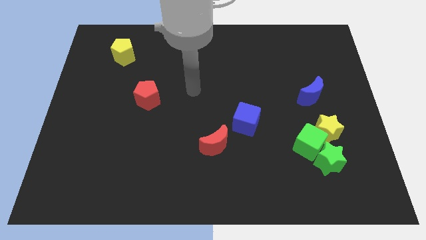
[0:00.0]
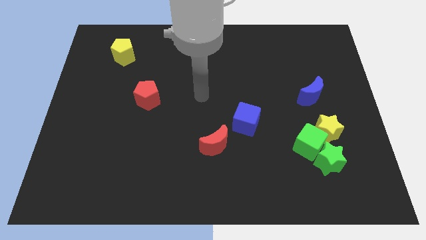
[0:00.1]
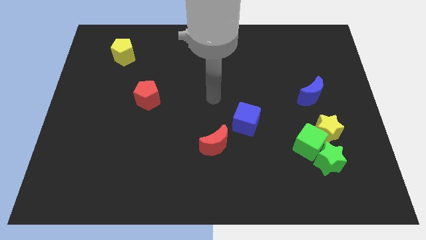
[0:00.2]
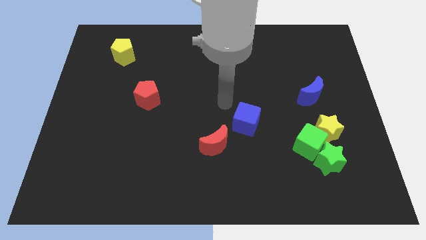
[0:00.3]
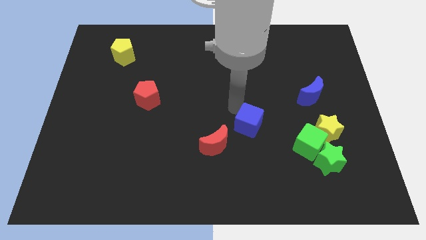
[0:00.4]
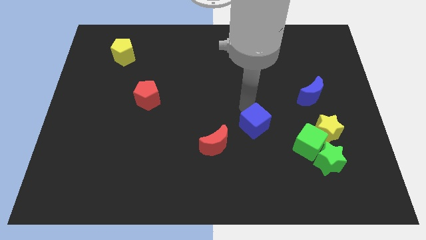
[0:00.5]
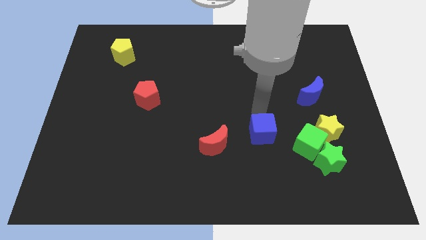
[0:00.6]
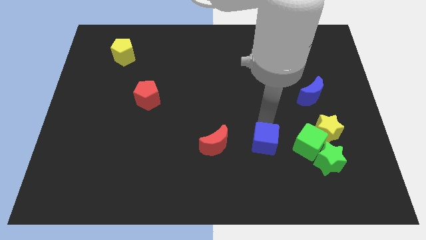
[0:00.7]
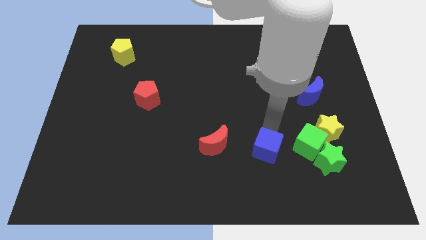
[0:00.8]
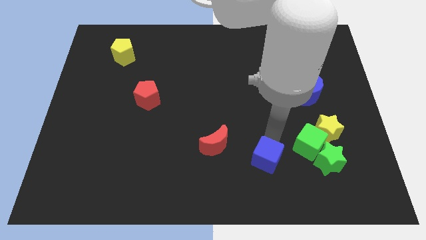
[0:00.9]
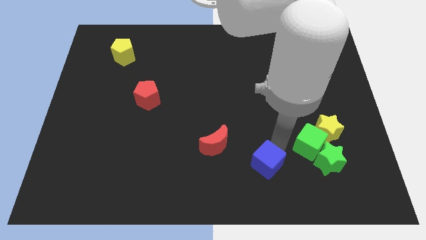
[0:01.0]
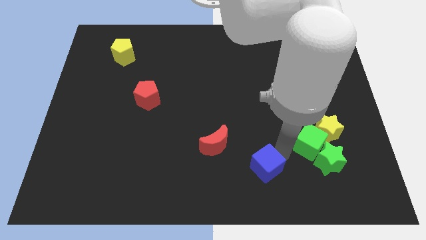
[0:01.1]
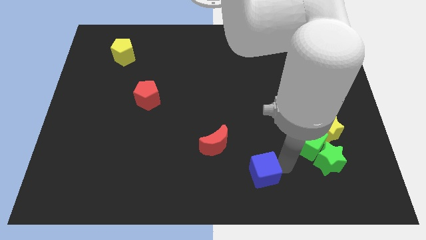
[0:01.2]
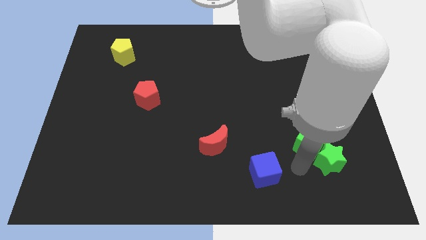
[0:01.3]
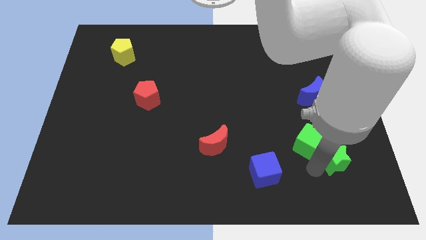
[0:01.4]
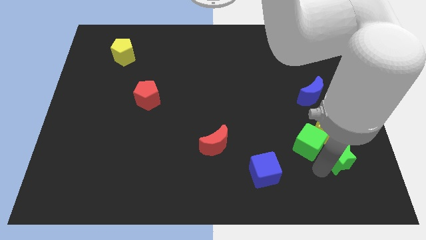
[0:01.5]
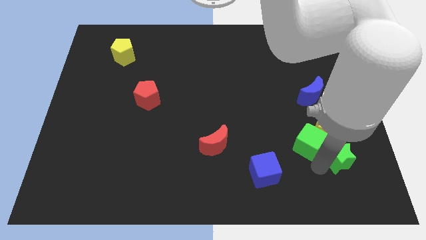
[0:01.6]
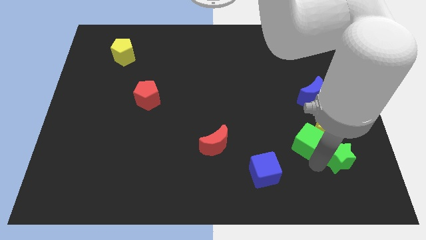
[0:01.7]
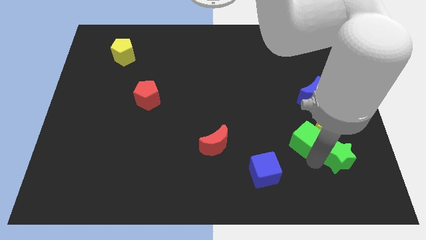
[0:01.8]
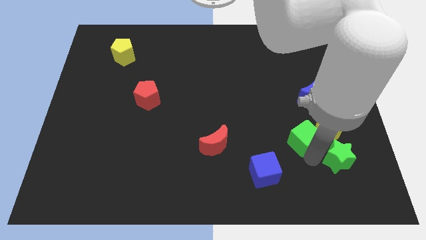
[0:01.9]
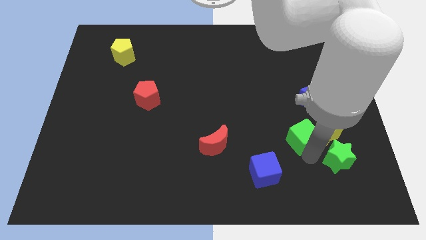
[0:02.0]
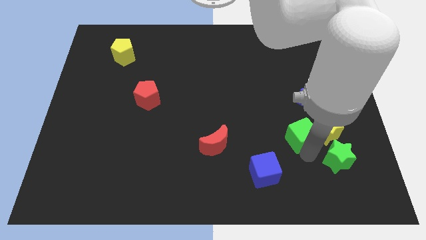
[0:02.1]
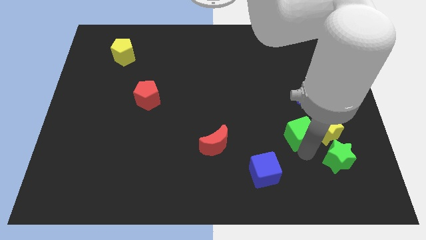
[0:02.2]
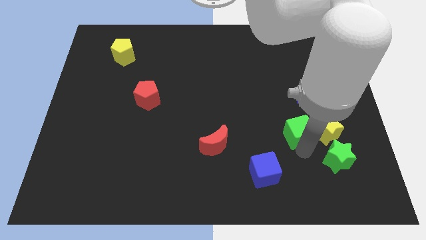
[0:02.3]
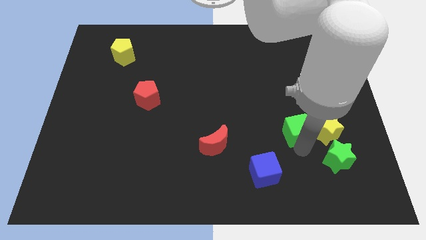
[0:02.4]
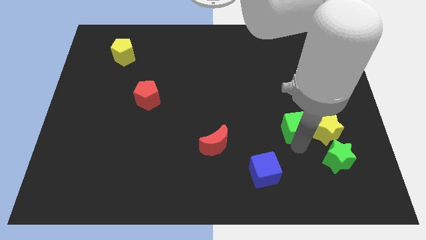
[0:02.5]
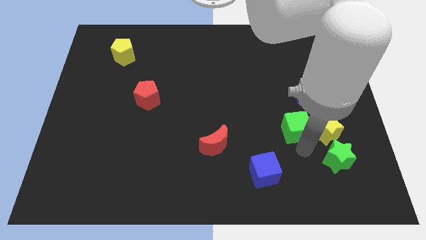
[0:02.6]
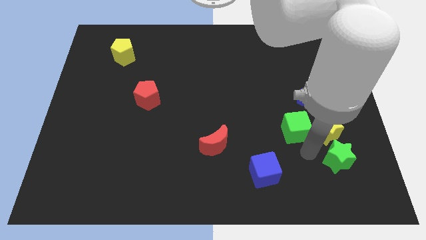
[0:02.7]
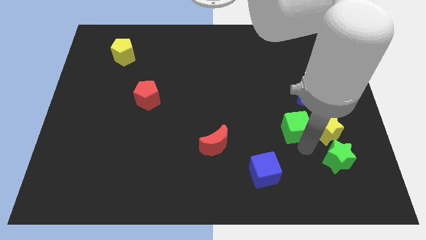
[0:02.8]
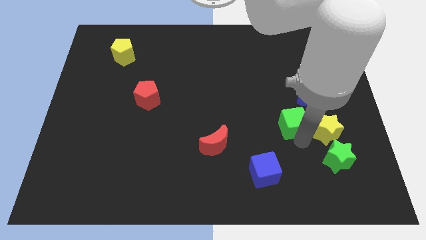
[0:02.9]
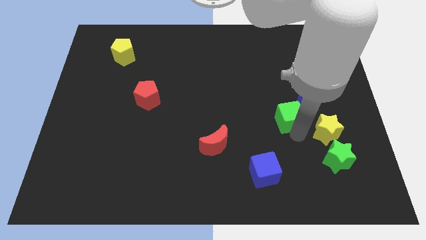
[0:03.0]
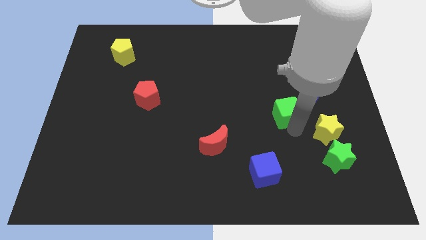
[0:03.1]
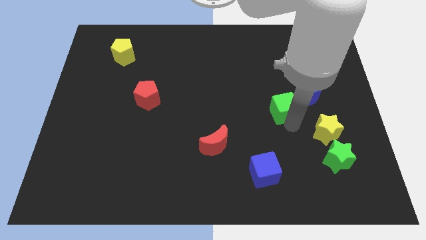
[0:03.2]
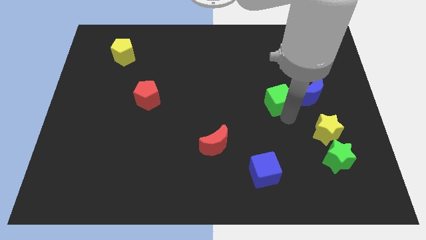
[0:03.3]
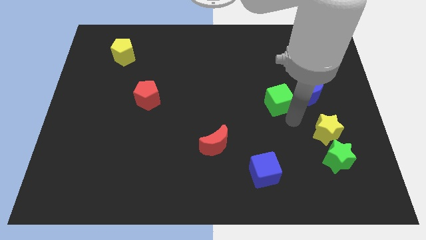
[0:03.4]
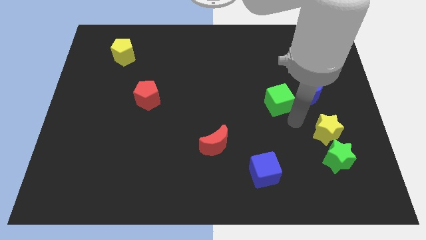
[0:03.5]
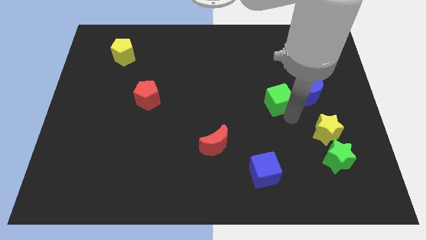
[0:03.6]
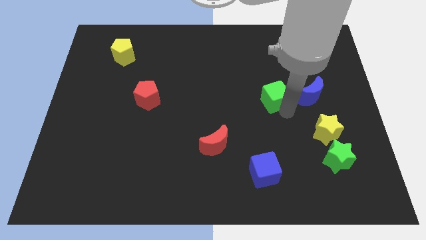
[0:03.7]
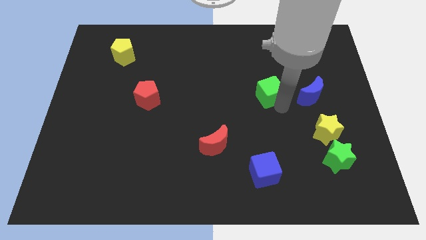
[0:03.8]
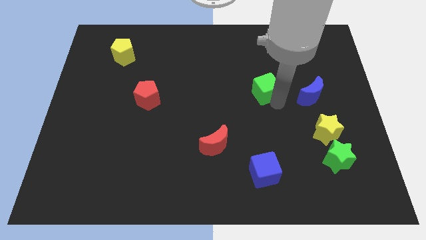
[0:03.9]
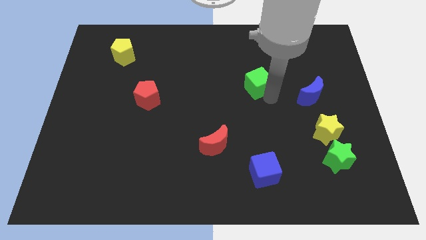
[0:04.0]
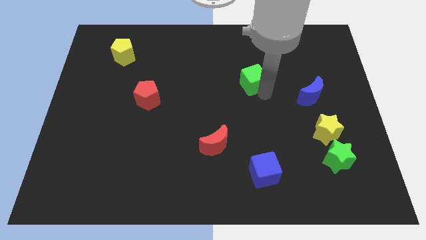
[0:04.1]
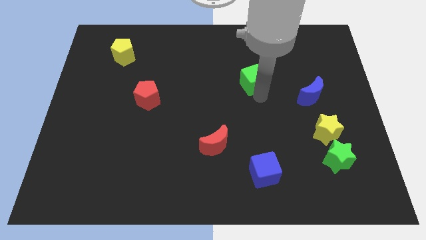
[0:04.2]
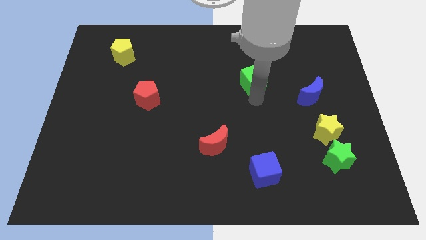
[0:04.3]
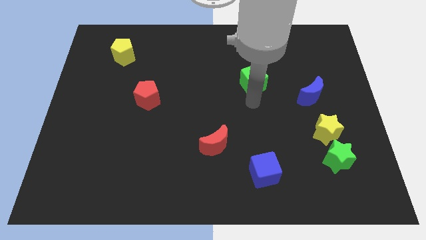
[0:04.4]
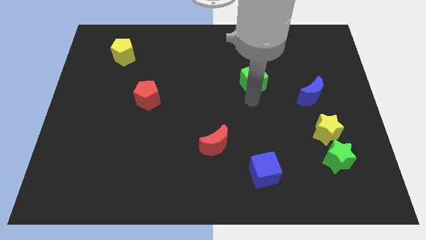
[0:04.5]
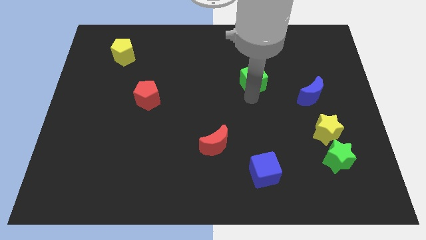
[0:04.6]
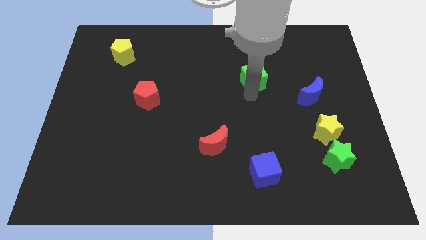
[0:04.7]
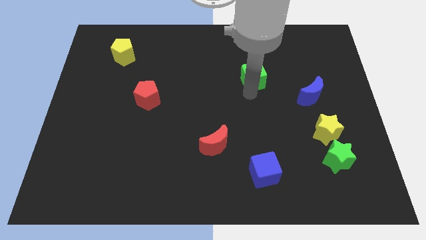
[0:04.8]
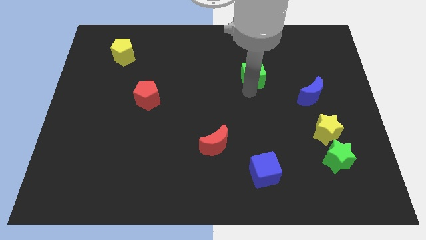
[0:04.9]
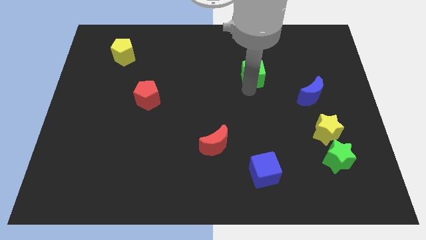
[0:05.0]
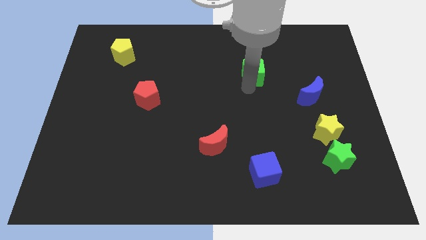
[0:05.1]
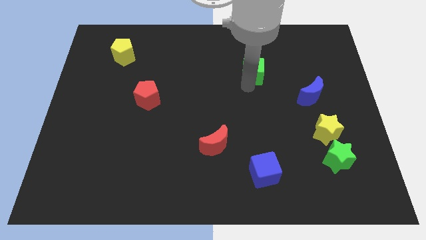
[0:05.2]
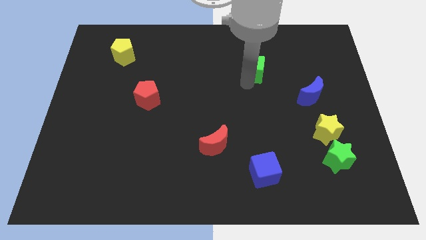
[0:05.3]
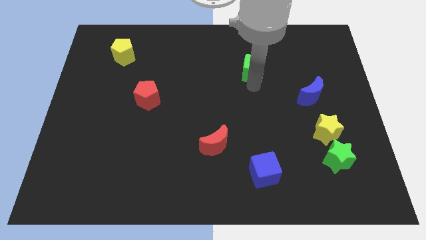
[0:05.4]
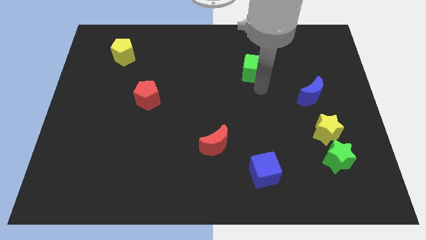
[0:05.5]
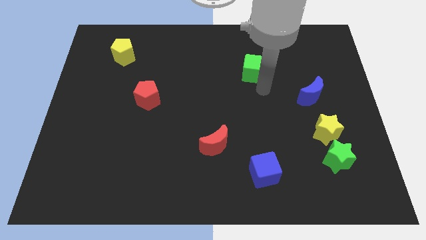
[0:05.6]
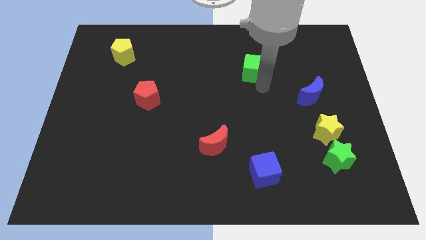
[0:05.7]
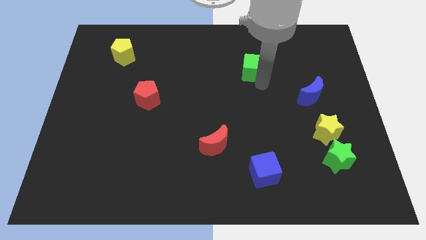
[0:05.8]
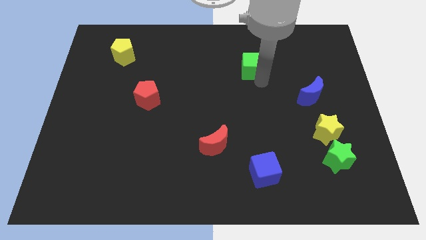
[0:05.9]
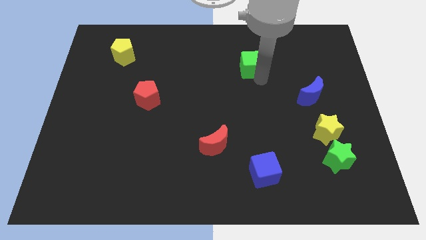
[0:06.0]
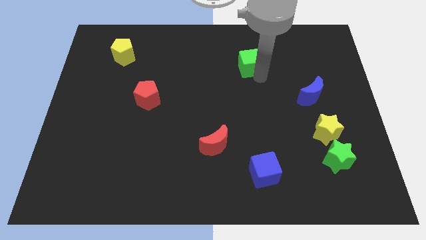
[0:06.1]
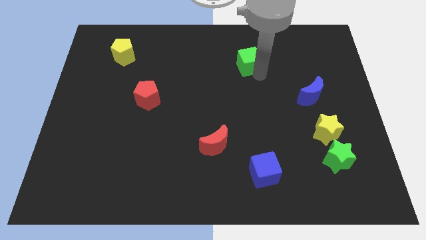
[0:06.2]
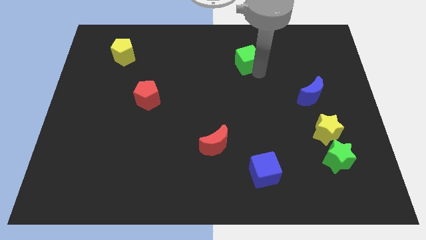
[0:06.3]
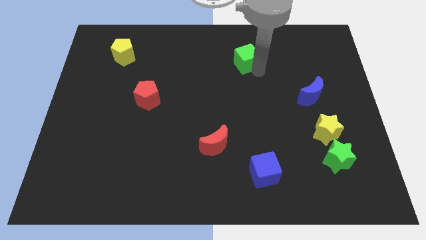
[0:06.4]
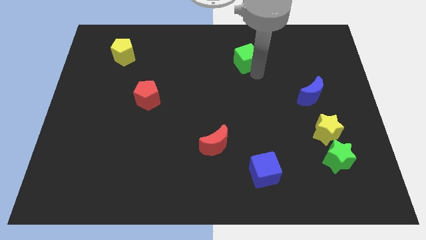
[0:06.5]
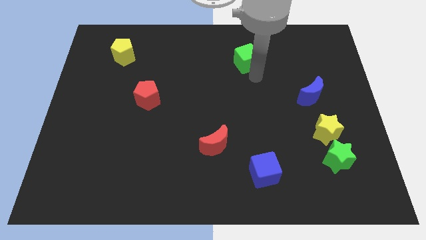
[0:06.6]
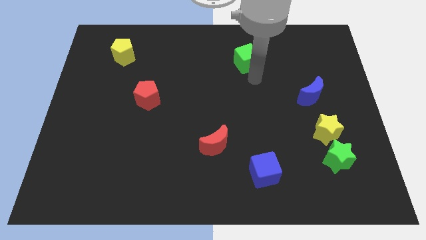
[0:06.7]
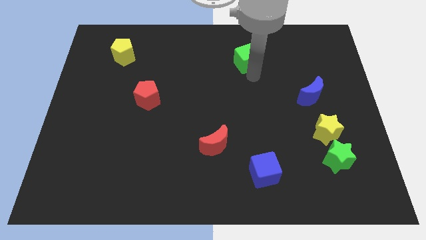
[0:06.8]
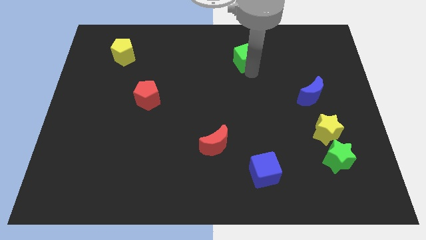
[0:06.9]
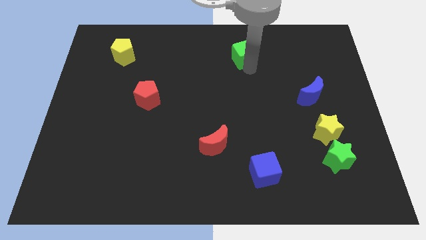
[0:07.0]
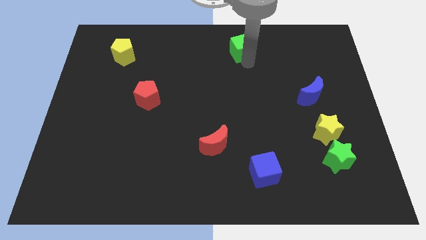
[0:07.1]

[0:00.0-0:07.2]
push the green cube to the top

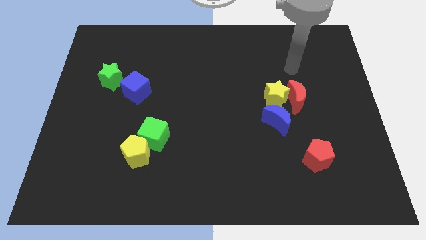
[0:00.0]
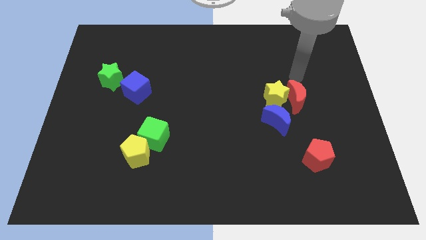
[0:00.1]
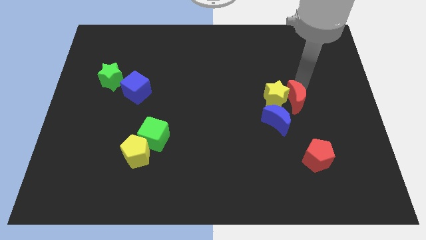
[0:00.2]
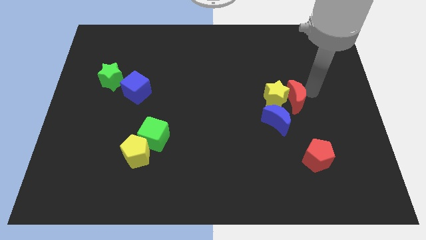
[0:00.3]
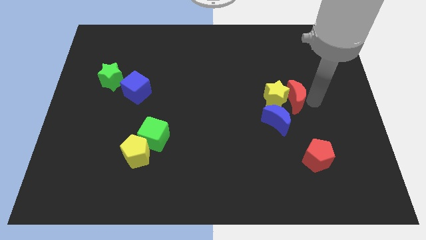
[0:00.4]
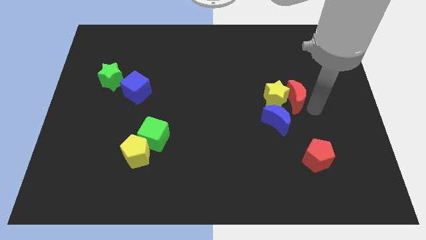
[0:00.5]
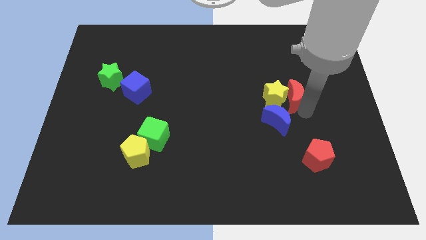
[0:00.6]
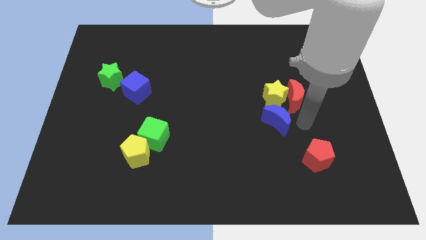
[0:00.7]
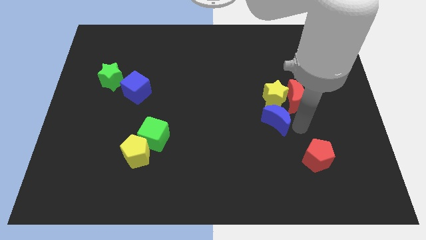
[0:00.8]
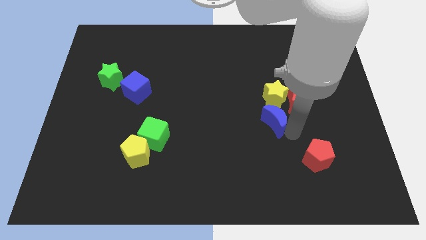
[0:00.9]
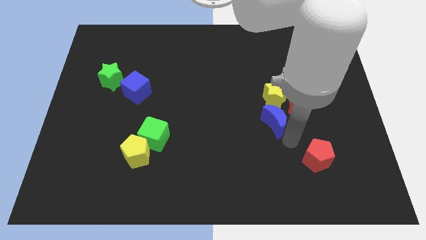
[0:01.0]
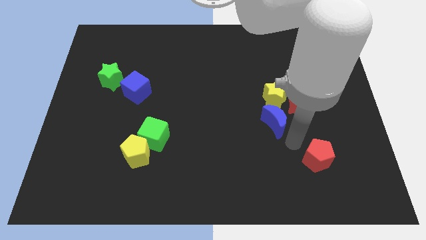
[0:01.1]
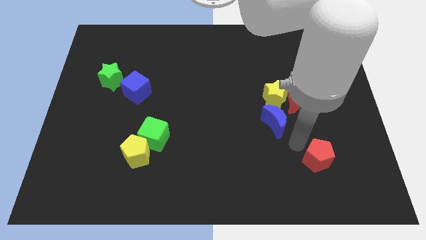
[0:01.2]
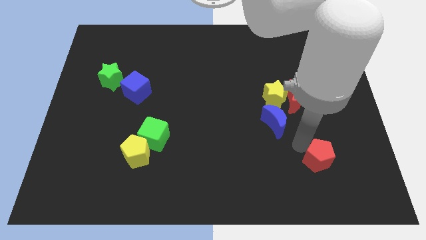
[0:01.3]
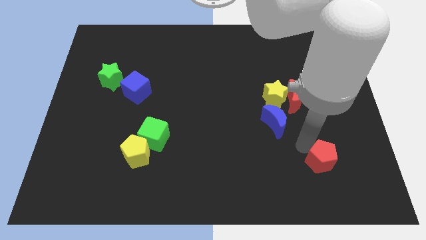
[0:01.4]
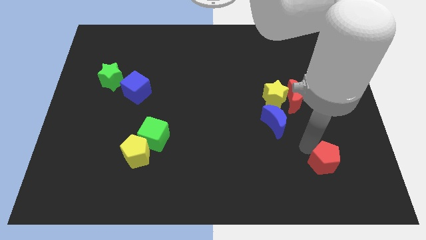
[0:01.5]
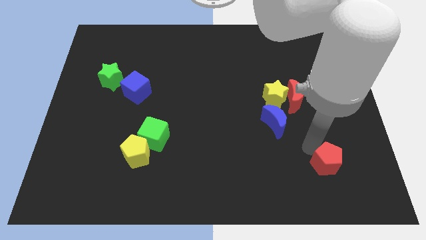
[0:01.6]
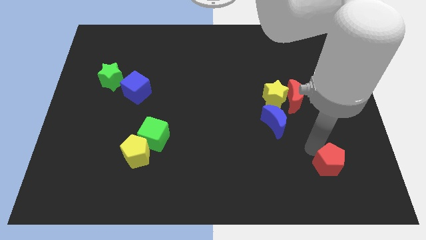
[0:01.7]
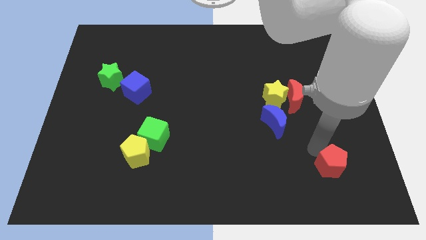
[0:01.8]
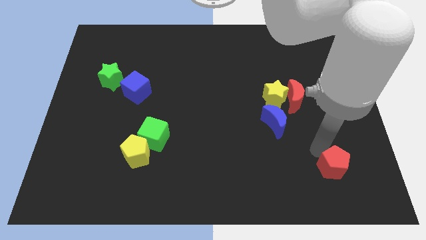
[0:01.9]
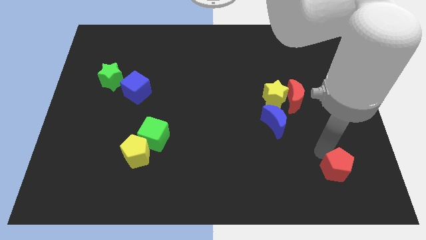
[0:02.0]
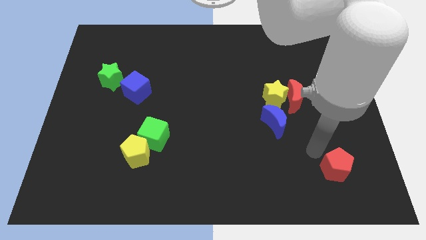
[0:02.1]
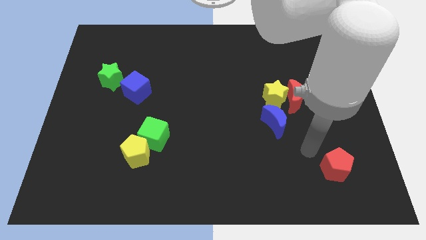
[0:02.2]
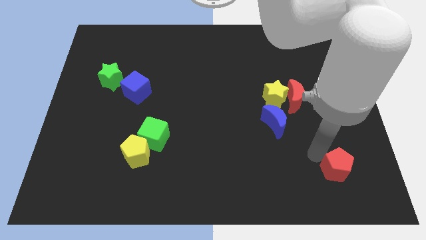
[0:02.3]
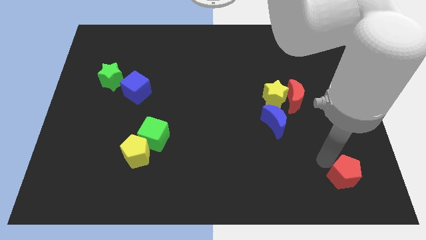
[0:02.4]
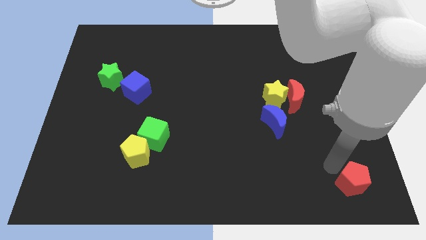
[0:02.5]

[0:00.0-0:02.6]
push the red pentagon to the bottom right corner
